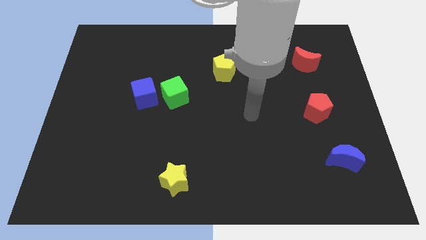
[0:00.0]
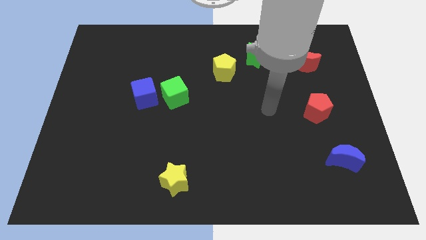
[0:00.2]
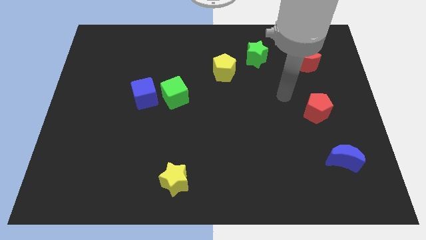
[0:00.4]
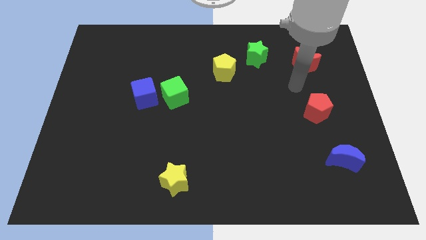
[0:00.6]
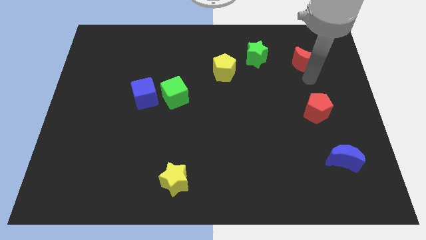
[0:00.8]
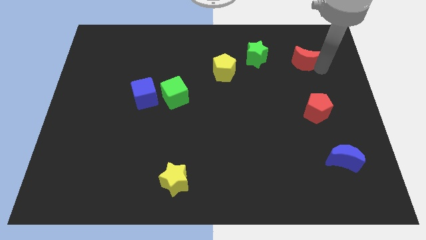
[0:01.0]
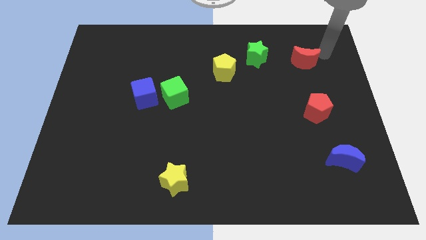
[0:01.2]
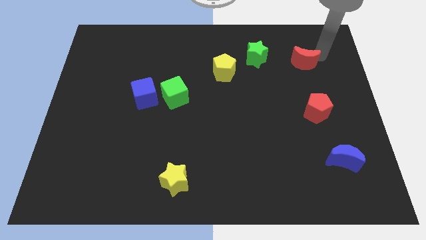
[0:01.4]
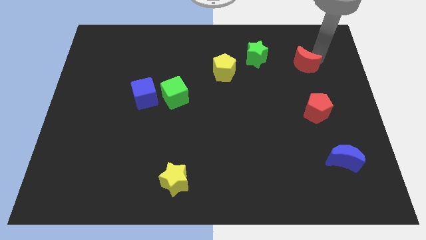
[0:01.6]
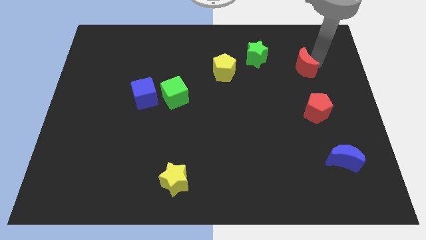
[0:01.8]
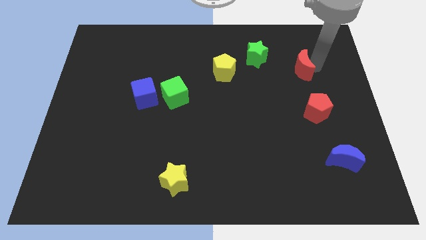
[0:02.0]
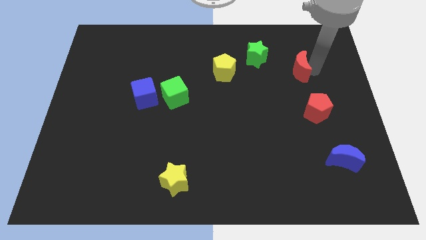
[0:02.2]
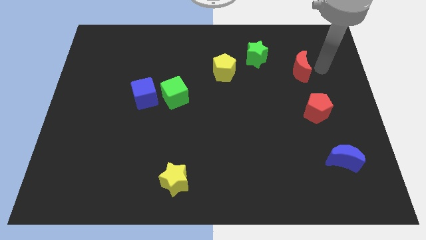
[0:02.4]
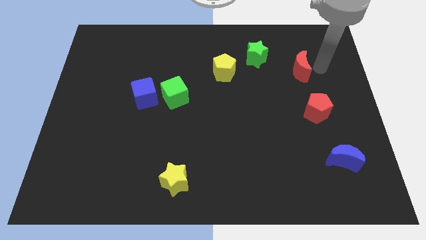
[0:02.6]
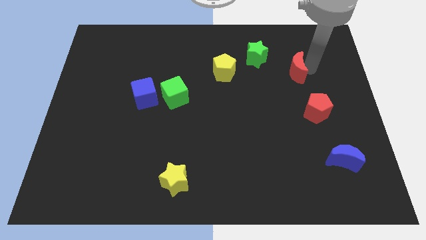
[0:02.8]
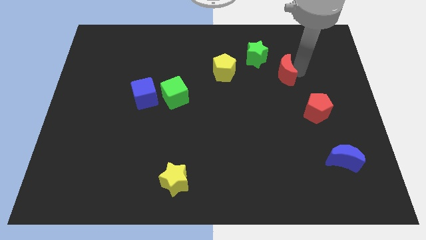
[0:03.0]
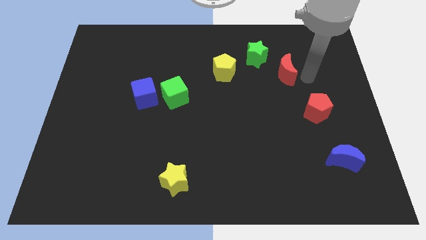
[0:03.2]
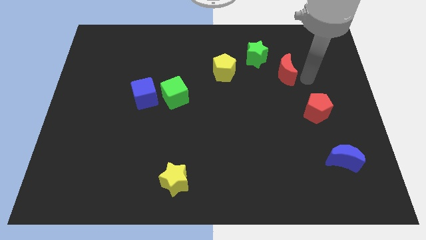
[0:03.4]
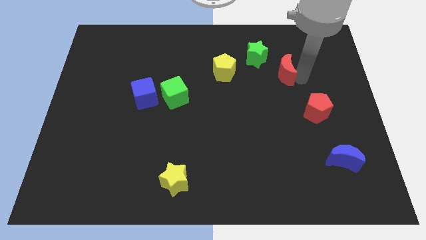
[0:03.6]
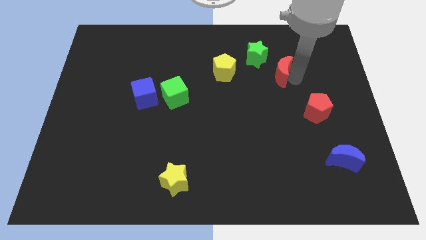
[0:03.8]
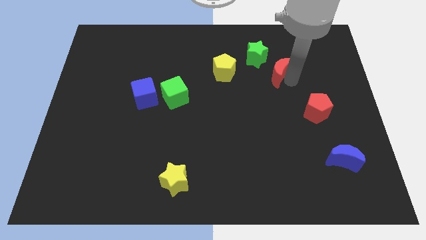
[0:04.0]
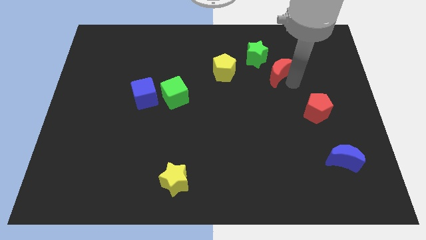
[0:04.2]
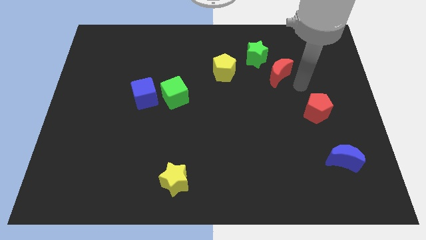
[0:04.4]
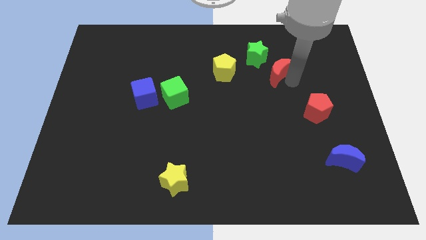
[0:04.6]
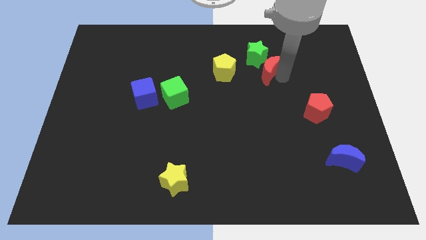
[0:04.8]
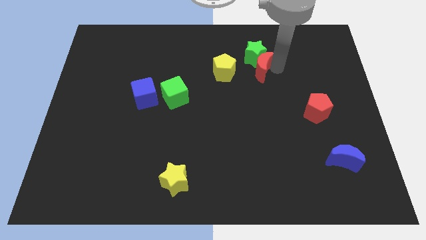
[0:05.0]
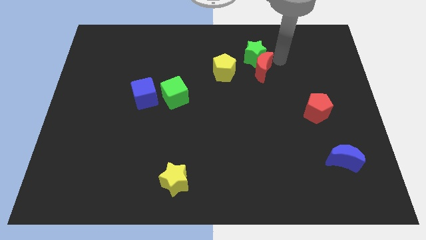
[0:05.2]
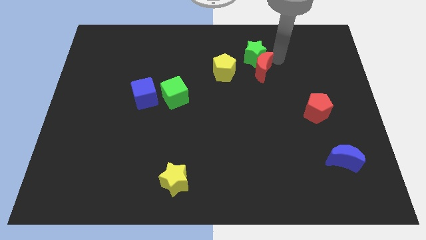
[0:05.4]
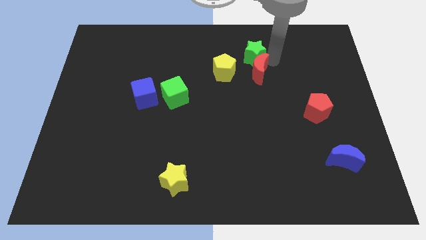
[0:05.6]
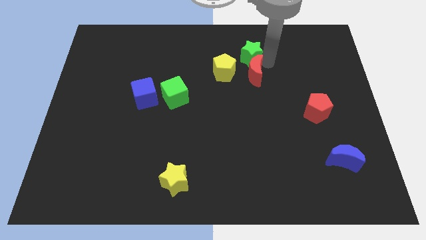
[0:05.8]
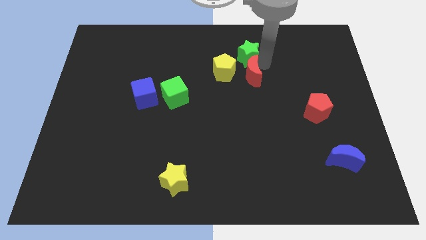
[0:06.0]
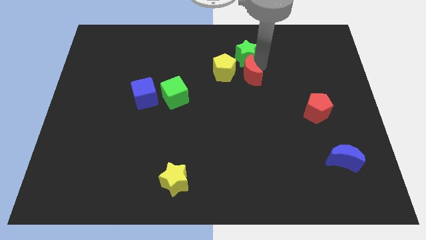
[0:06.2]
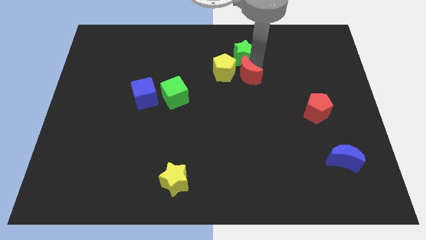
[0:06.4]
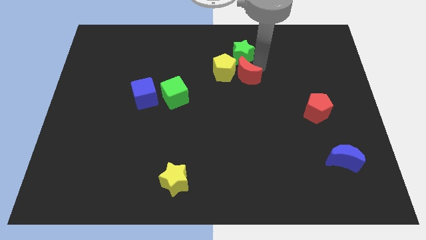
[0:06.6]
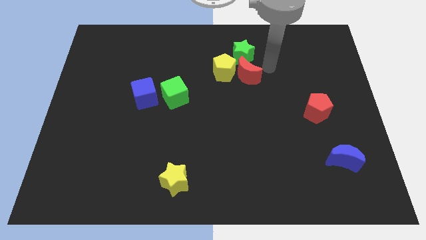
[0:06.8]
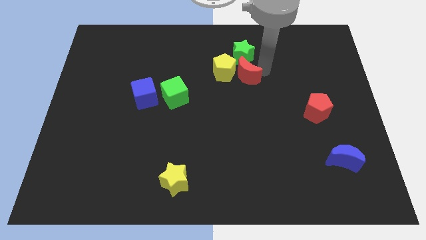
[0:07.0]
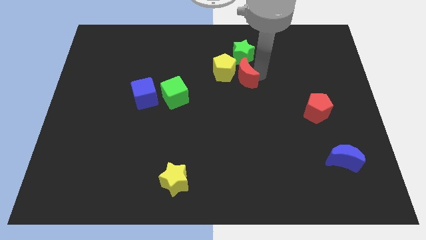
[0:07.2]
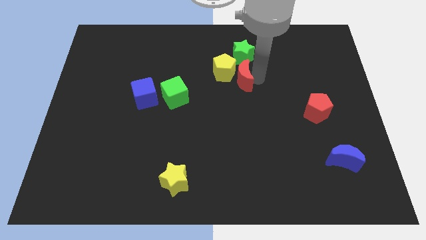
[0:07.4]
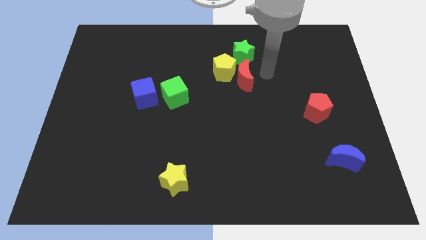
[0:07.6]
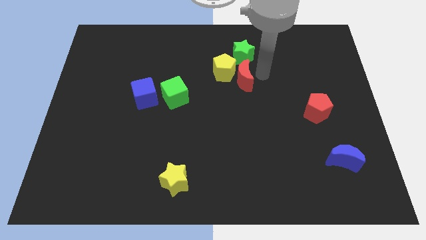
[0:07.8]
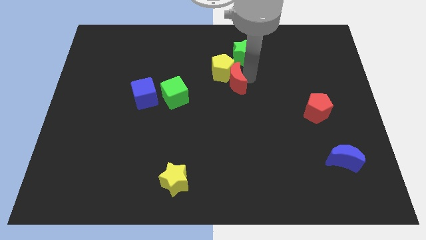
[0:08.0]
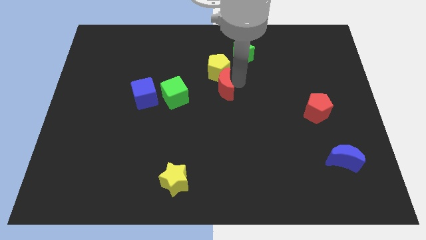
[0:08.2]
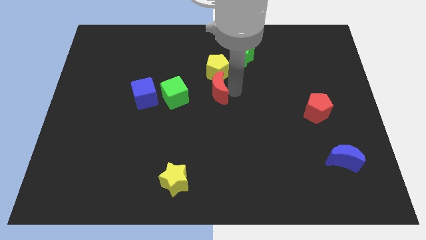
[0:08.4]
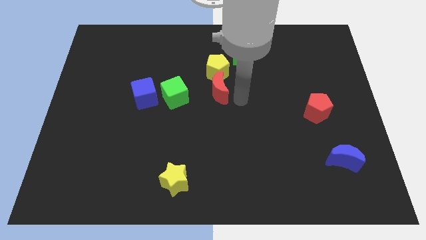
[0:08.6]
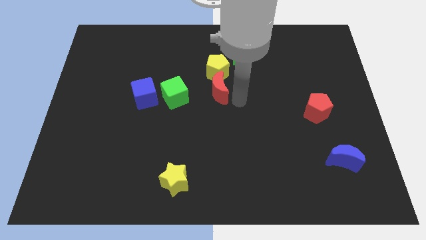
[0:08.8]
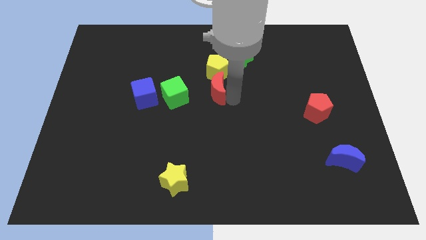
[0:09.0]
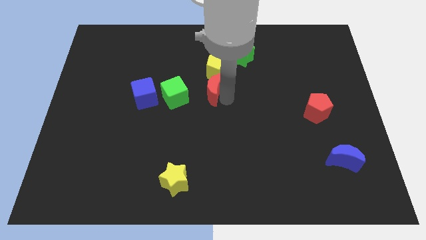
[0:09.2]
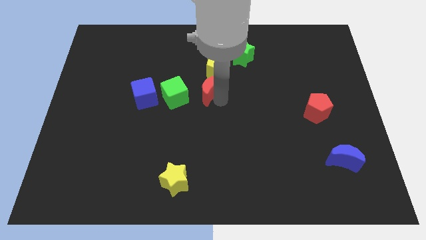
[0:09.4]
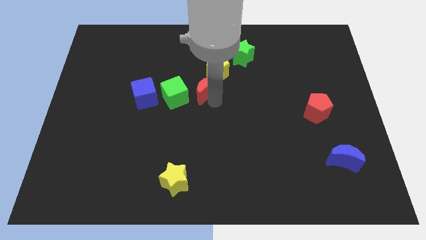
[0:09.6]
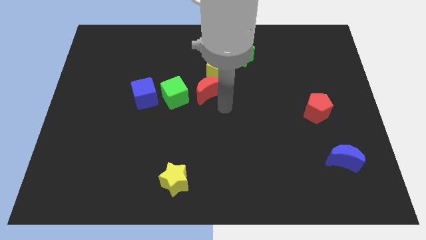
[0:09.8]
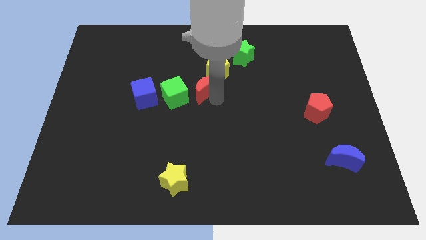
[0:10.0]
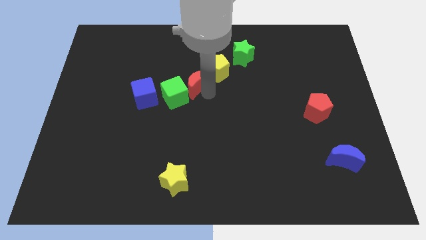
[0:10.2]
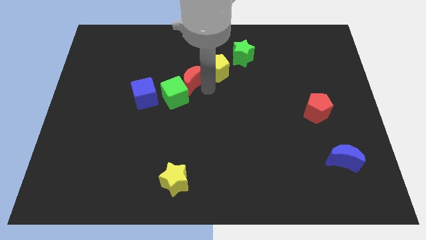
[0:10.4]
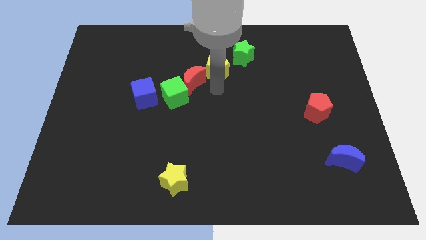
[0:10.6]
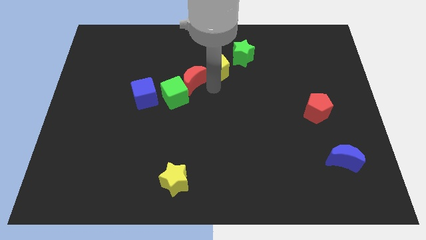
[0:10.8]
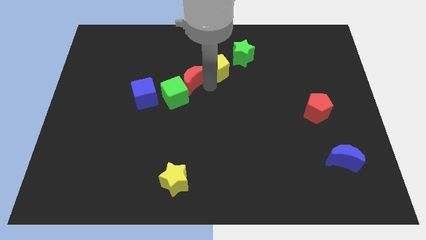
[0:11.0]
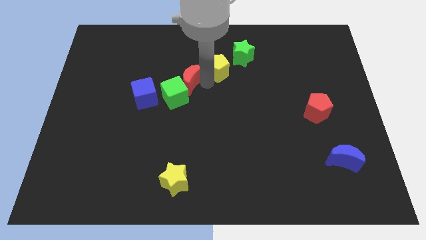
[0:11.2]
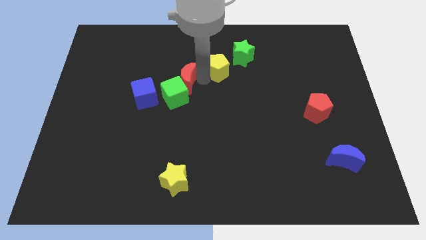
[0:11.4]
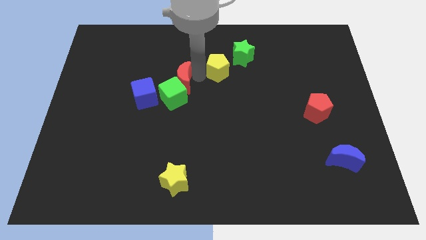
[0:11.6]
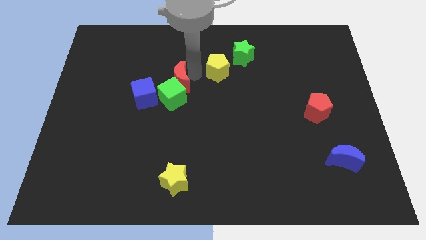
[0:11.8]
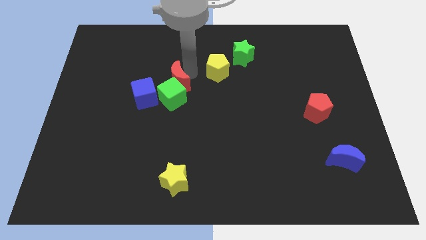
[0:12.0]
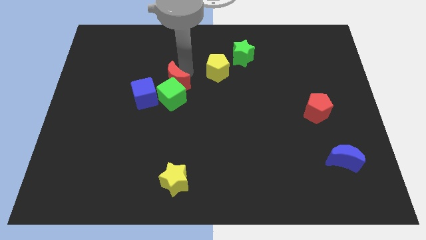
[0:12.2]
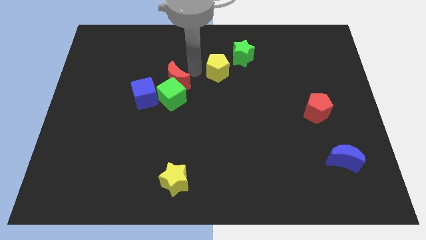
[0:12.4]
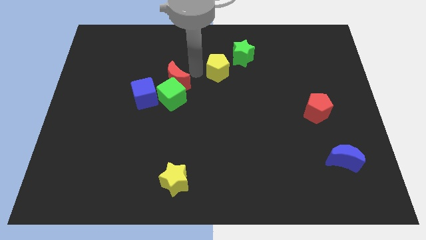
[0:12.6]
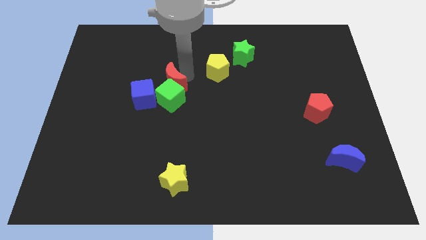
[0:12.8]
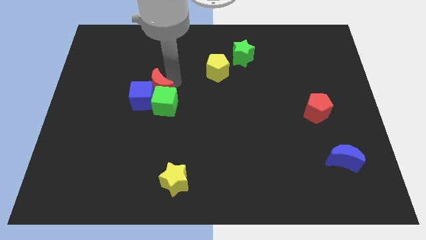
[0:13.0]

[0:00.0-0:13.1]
push the red moon towards the blue cube

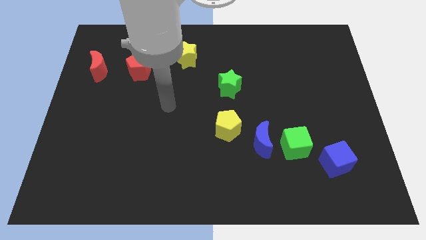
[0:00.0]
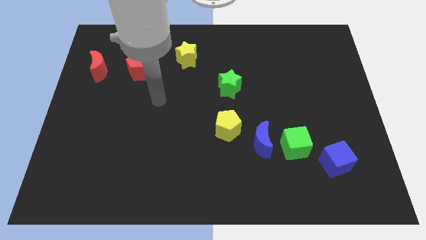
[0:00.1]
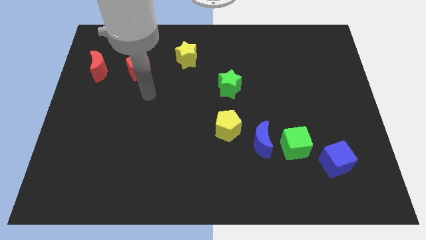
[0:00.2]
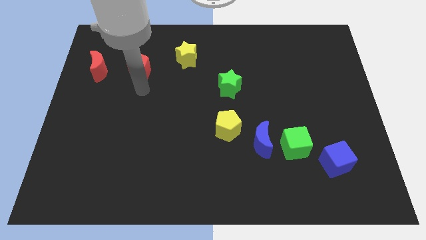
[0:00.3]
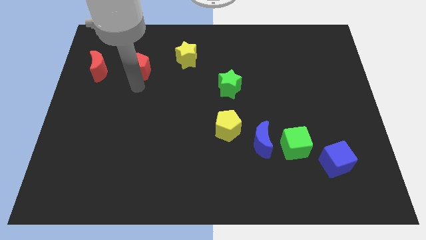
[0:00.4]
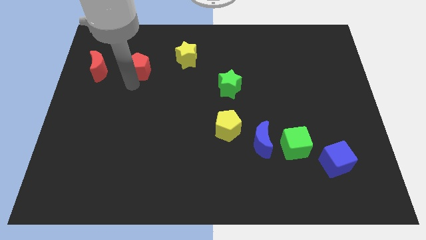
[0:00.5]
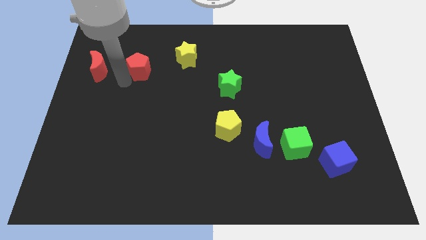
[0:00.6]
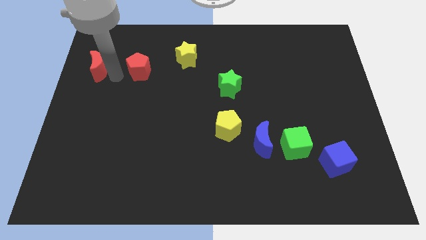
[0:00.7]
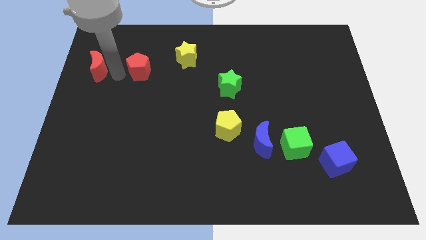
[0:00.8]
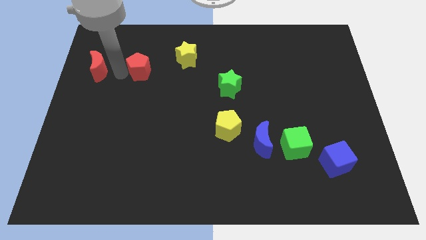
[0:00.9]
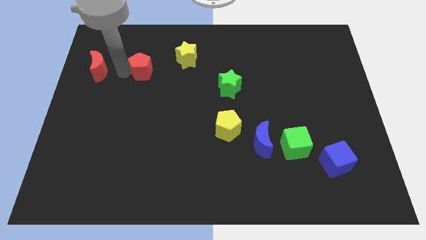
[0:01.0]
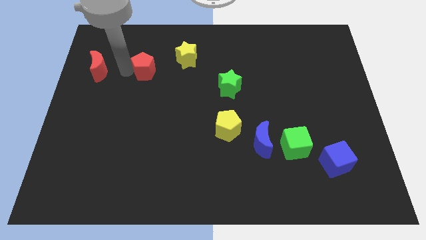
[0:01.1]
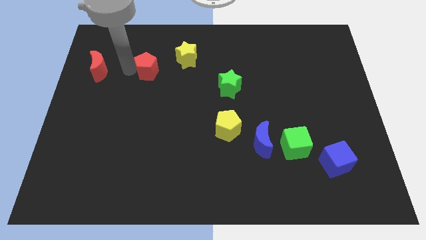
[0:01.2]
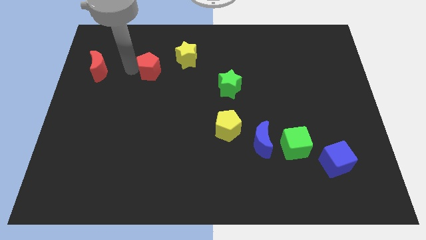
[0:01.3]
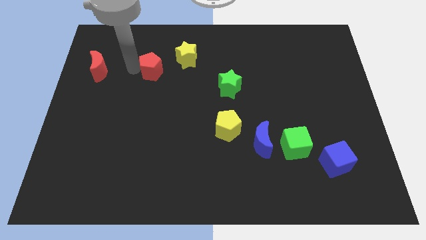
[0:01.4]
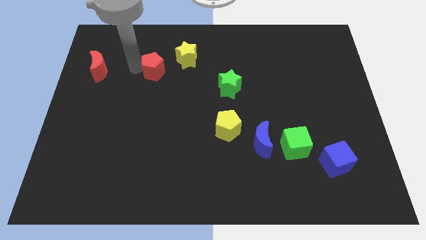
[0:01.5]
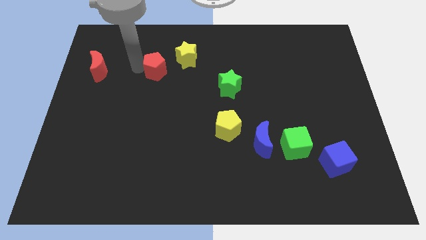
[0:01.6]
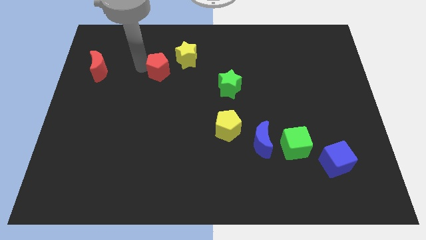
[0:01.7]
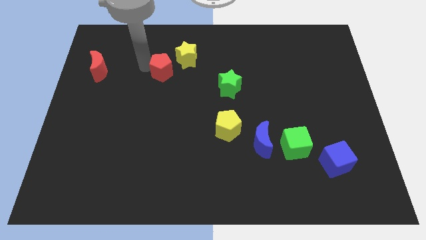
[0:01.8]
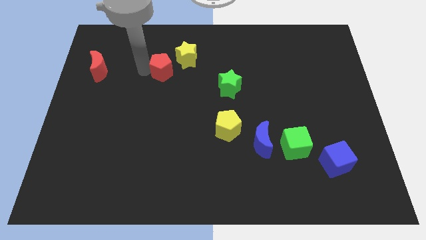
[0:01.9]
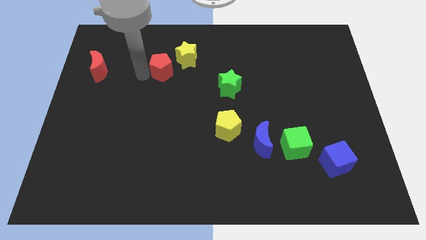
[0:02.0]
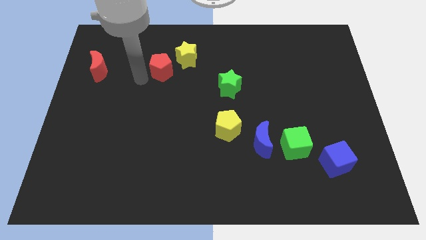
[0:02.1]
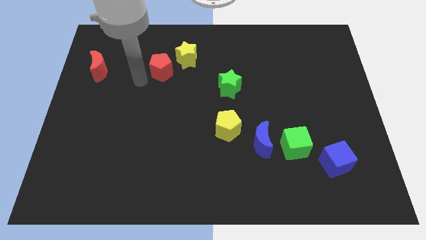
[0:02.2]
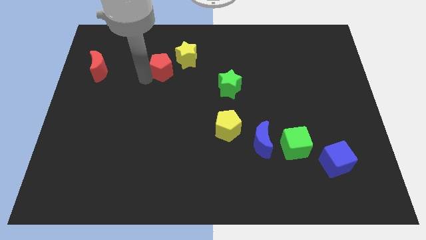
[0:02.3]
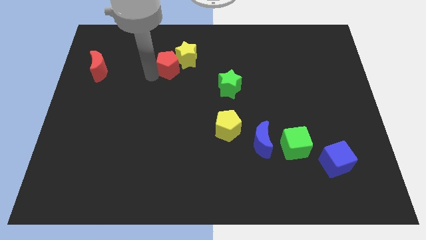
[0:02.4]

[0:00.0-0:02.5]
put the red pentagon close to the yellow star
